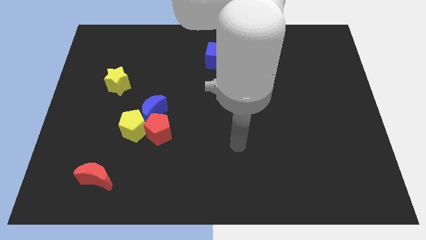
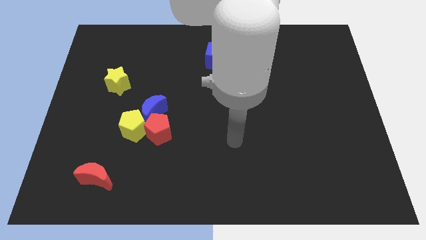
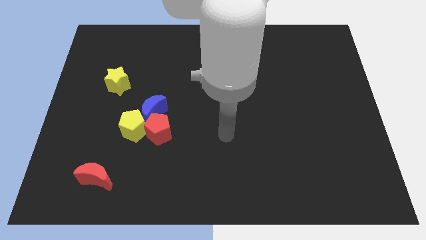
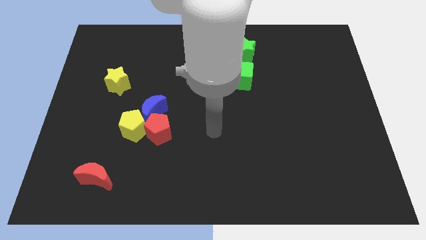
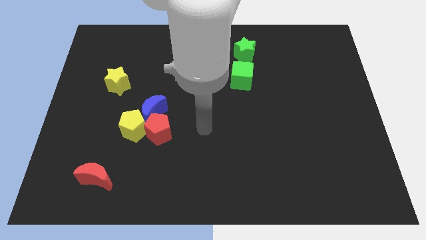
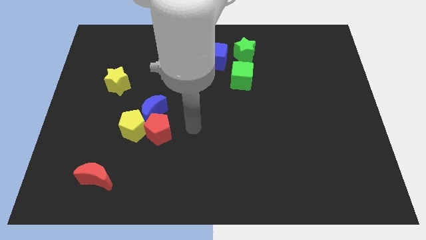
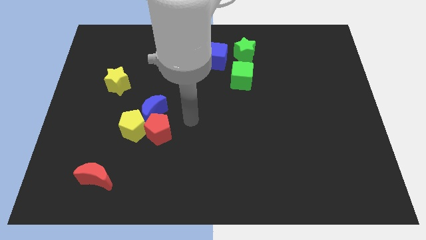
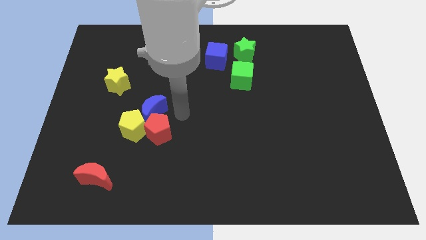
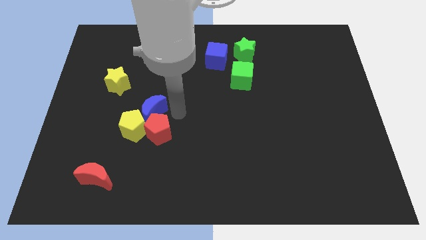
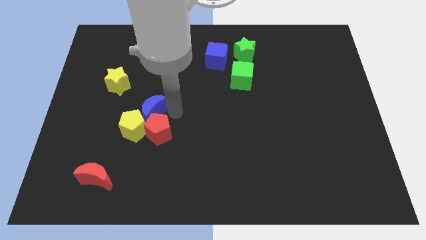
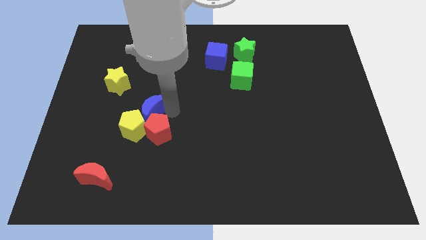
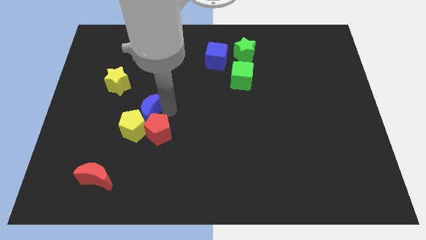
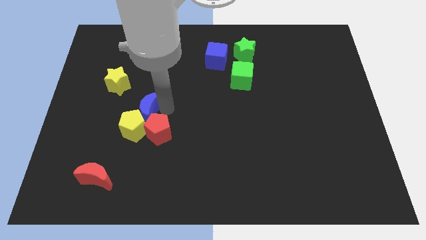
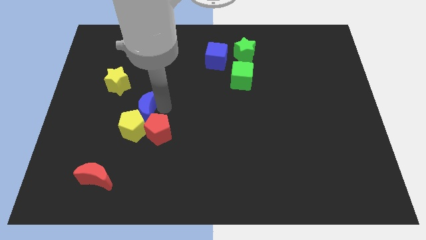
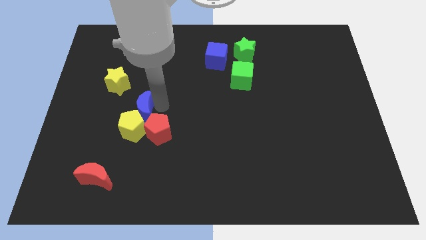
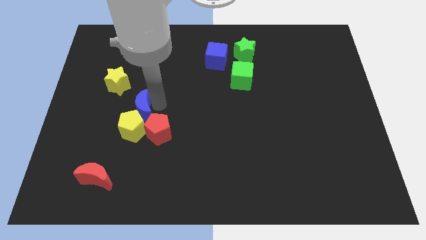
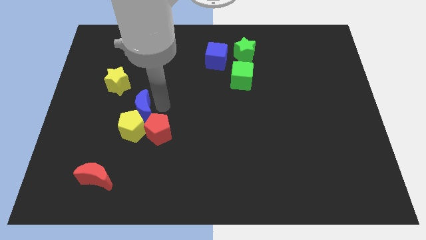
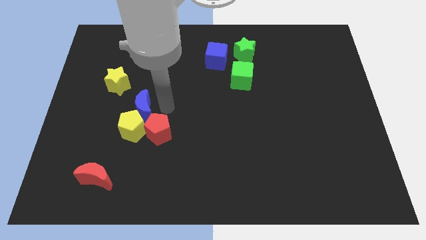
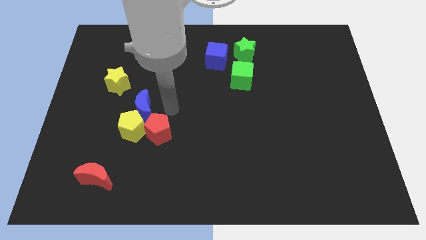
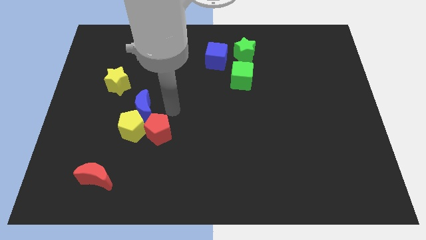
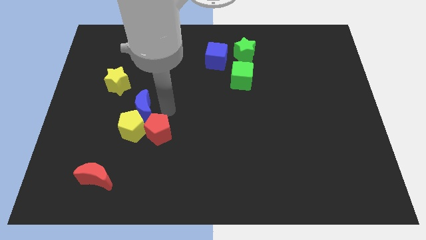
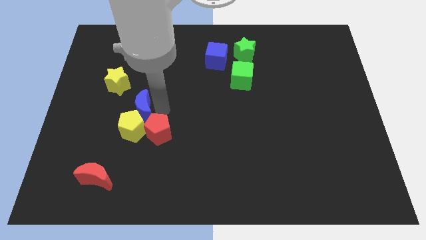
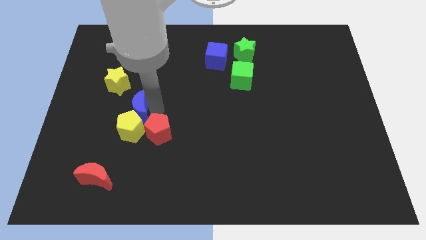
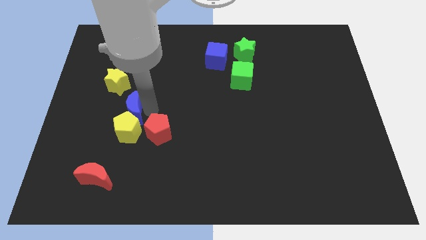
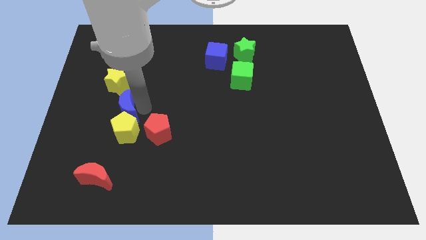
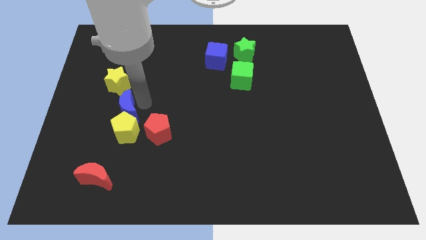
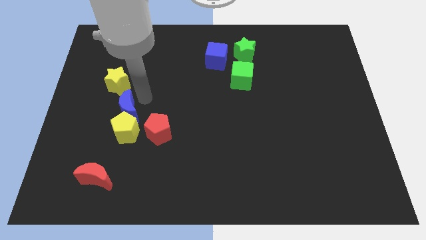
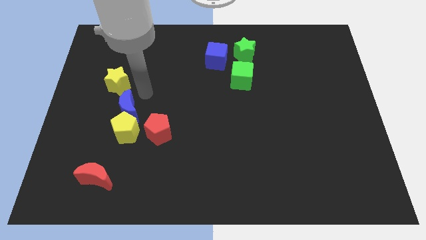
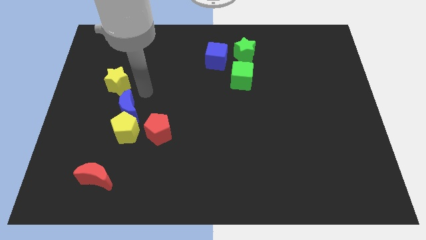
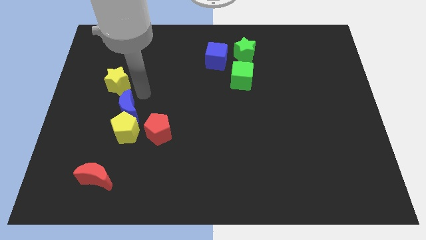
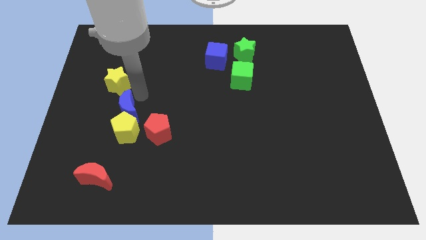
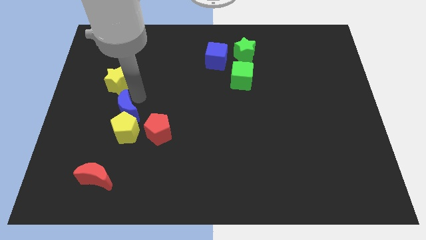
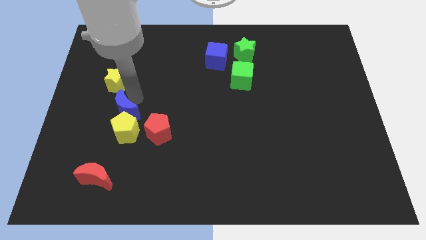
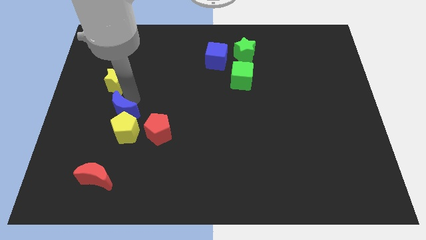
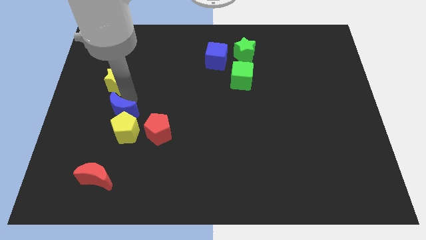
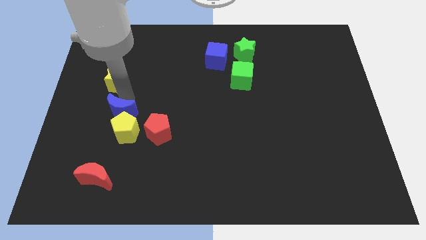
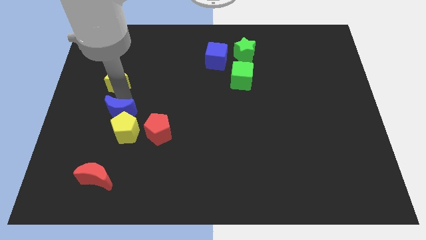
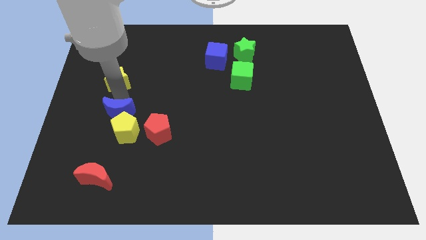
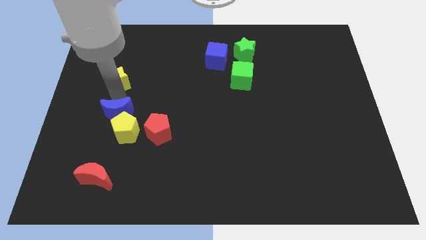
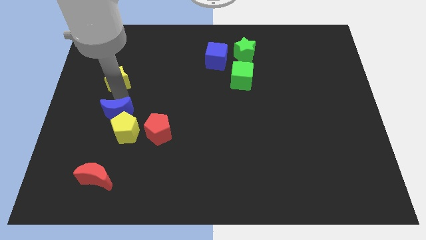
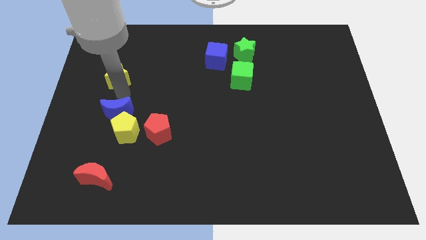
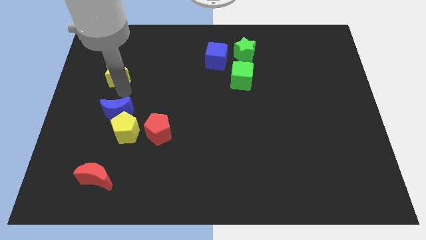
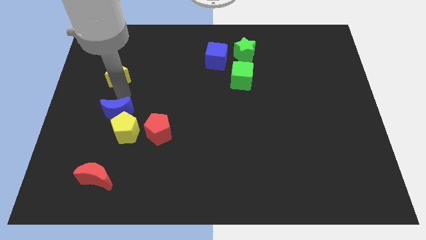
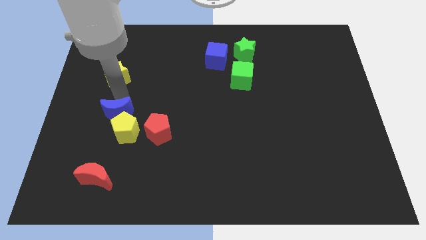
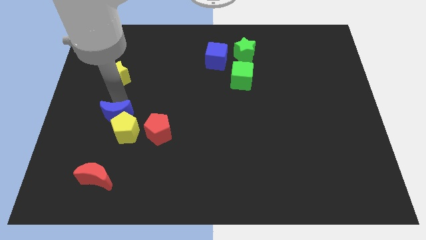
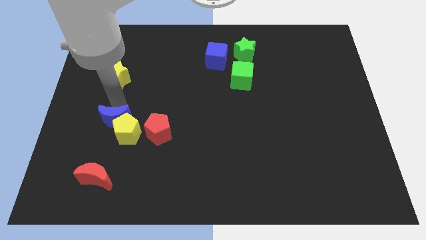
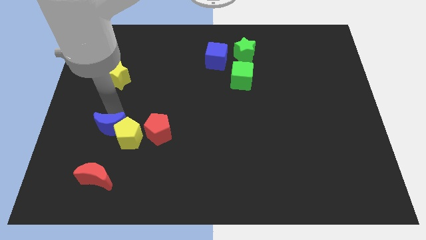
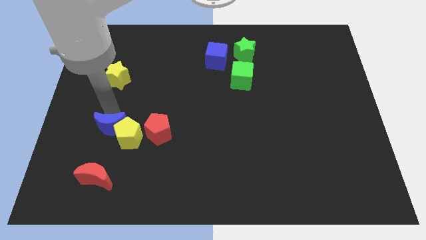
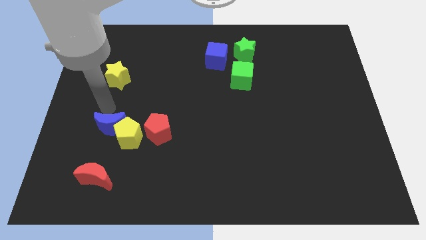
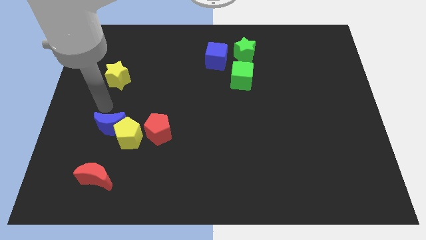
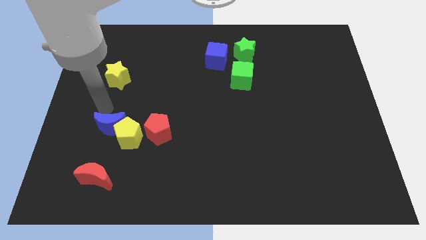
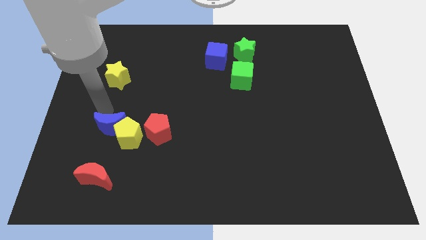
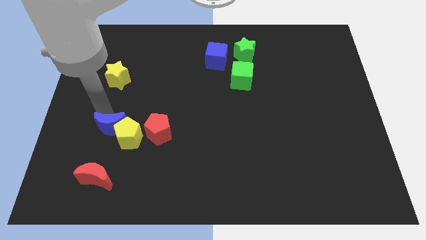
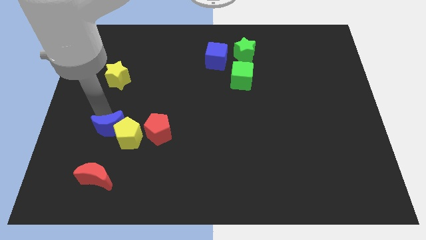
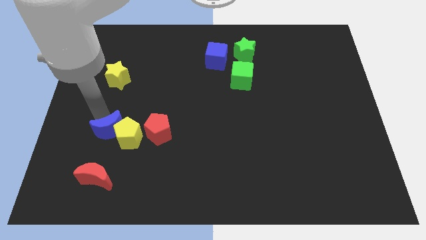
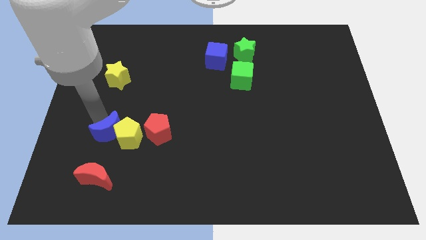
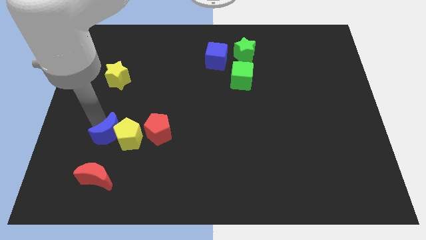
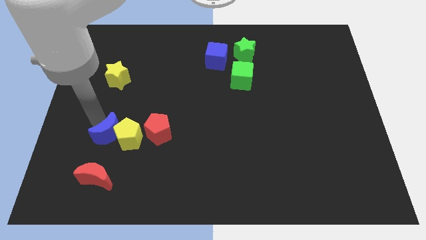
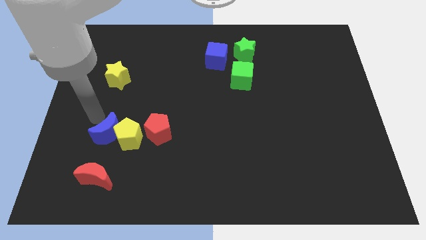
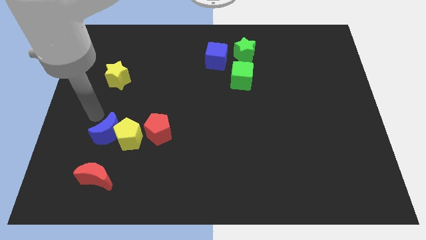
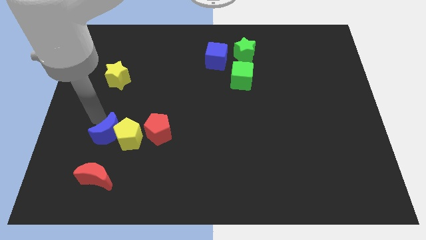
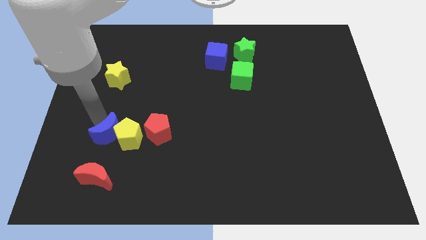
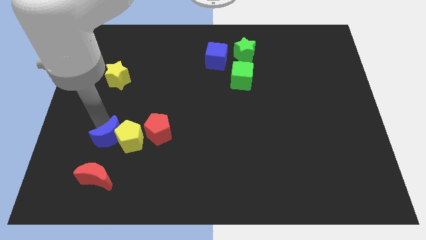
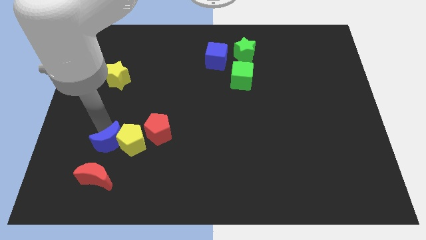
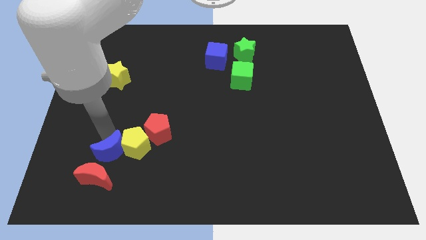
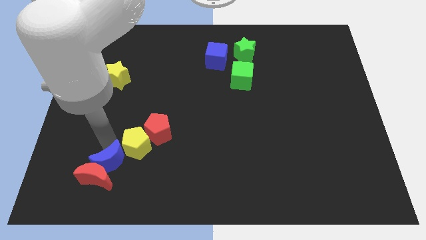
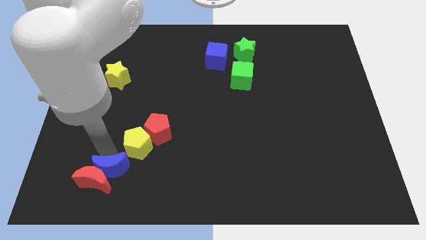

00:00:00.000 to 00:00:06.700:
push the blue moon to the bottom side of the yellow pentagon

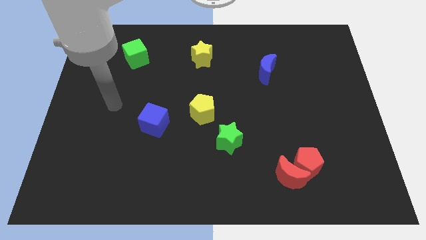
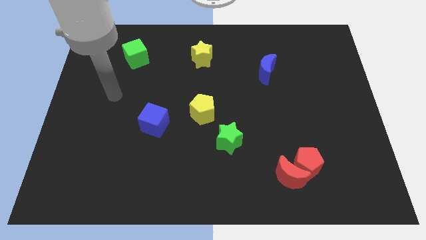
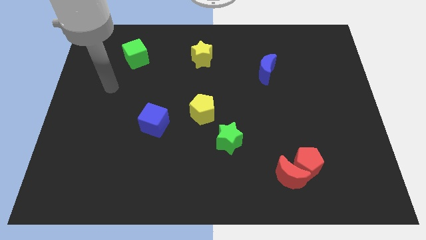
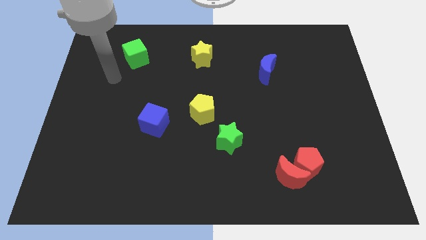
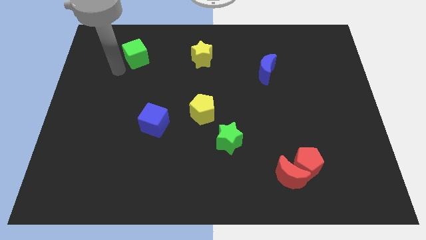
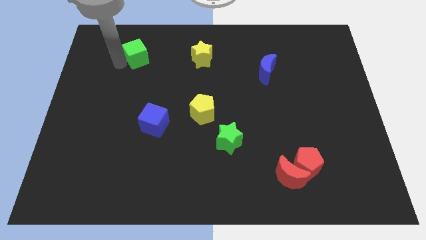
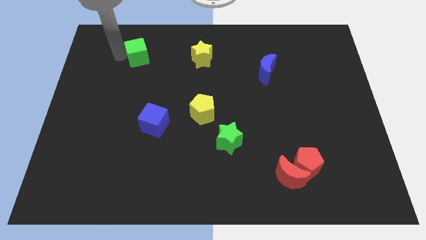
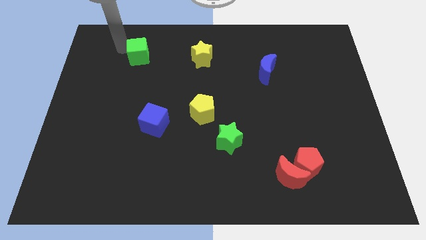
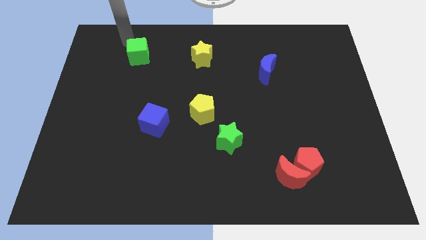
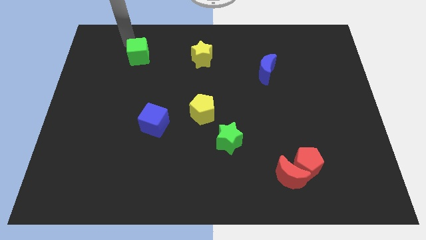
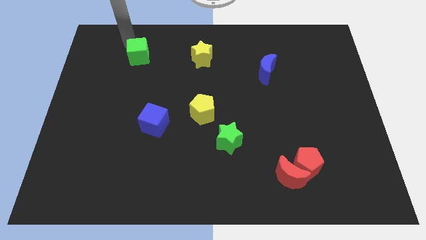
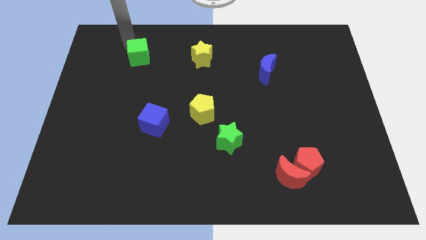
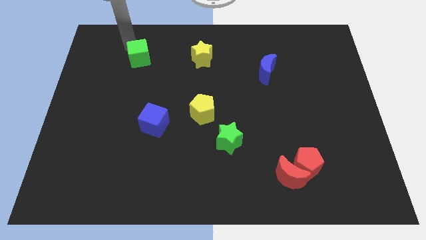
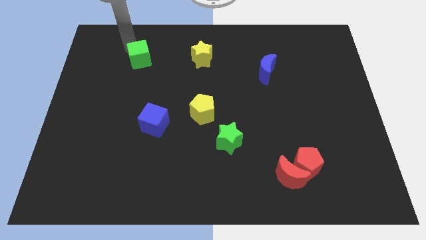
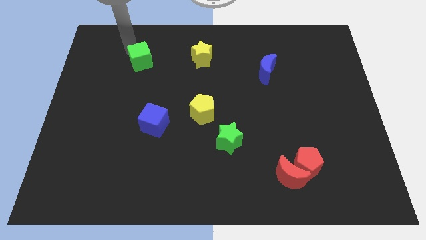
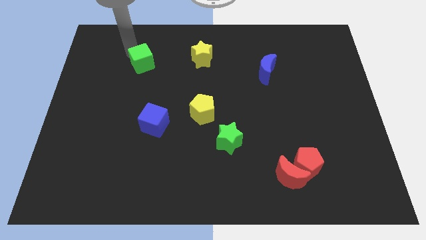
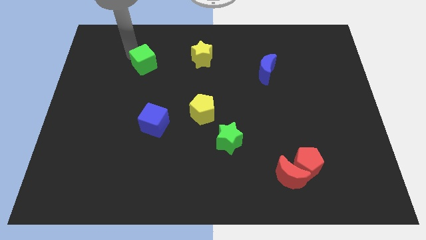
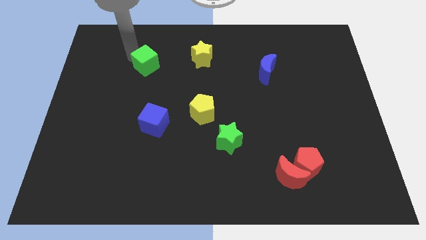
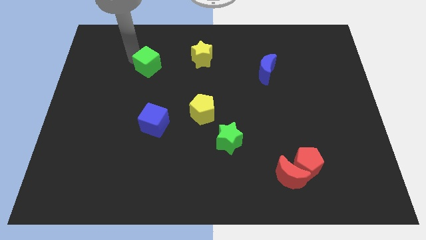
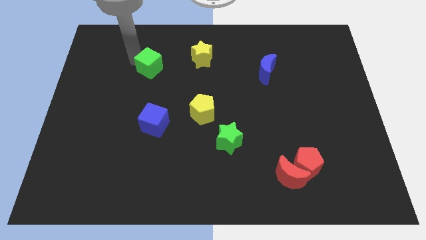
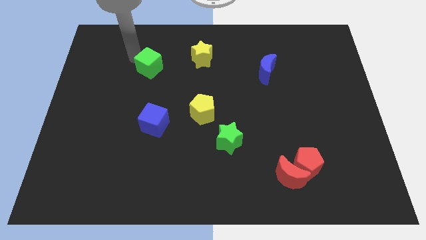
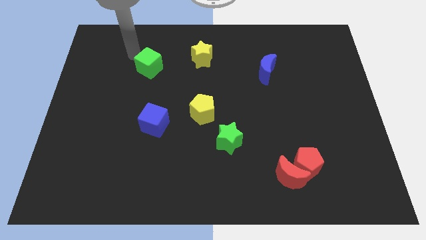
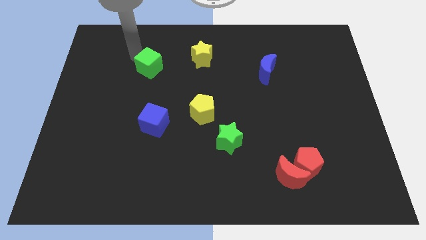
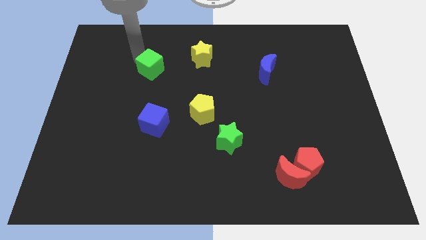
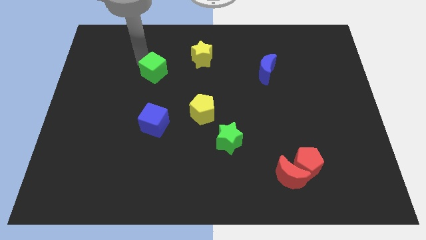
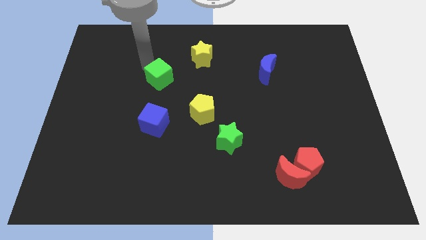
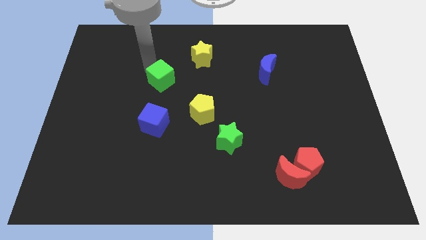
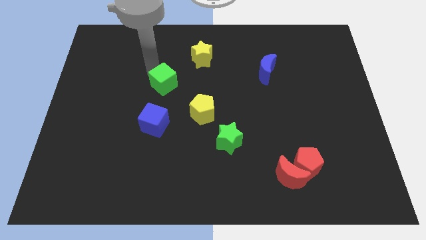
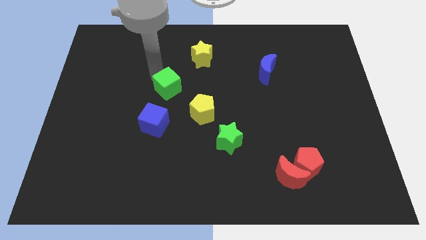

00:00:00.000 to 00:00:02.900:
push the green cube to the top left side of the yellow pentagon
